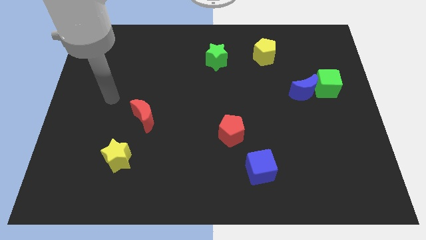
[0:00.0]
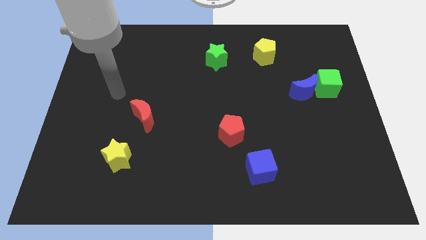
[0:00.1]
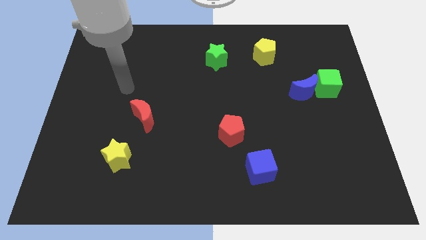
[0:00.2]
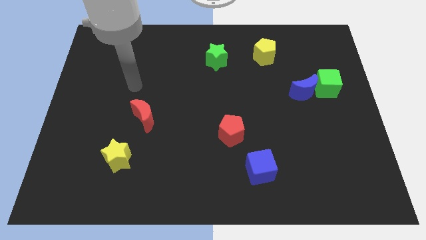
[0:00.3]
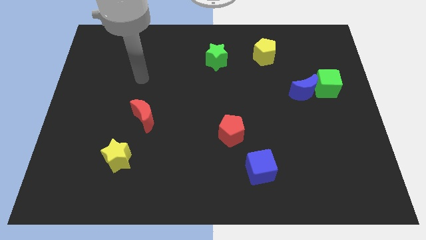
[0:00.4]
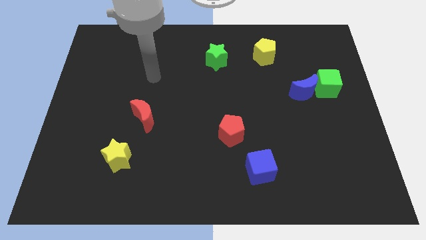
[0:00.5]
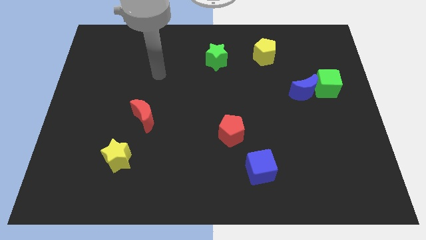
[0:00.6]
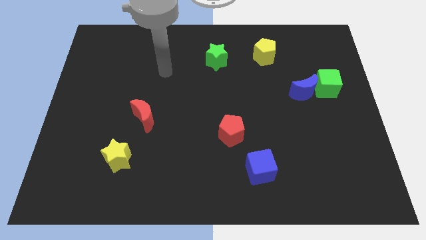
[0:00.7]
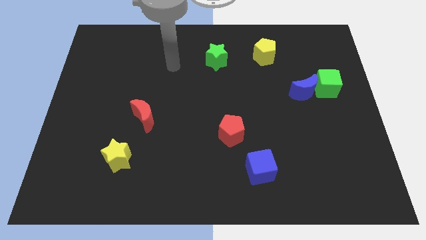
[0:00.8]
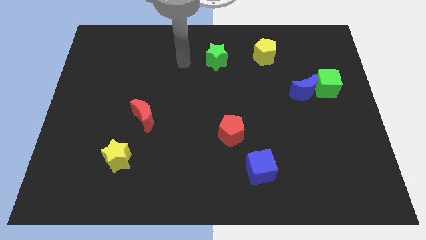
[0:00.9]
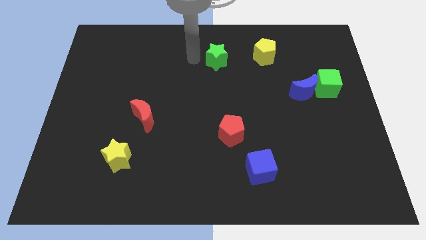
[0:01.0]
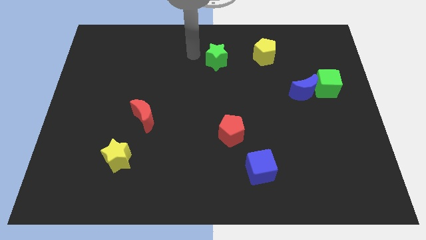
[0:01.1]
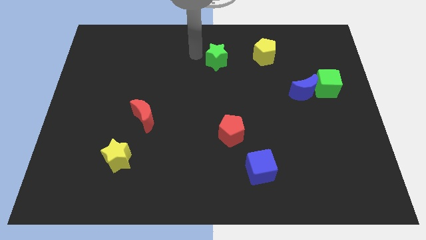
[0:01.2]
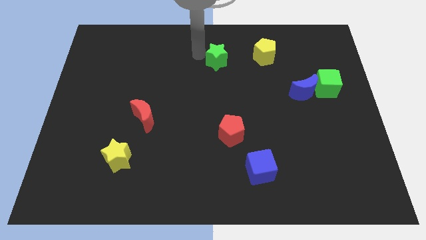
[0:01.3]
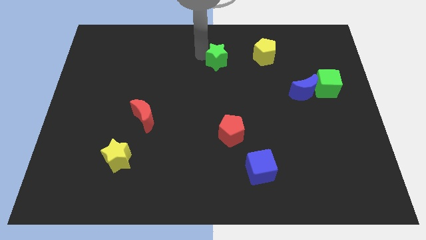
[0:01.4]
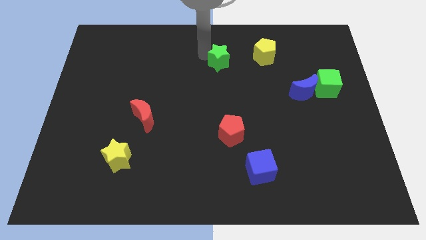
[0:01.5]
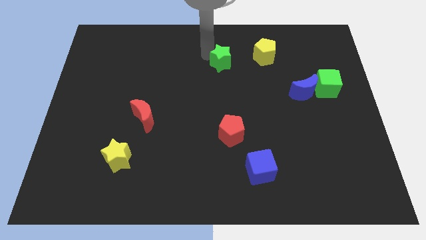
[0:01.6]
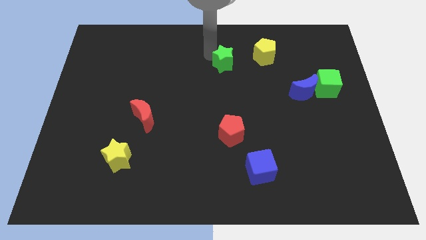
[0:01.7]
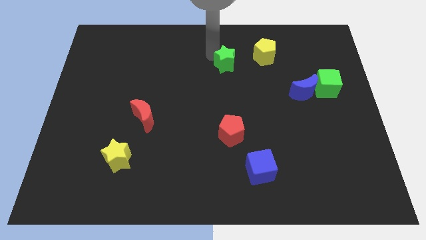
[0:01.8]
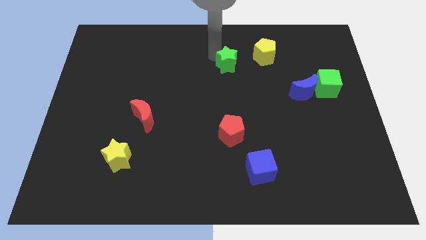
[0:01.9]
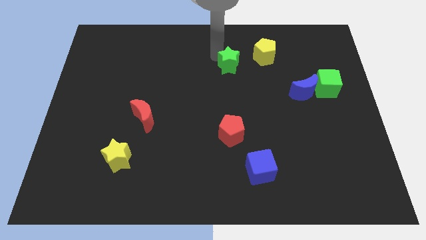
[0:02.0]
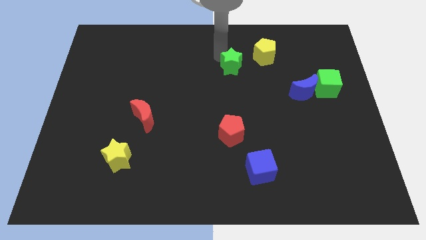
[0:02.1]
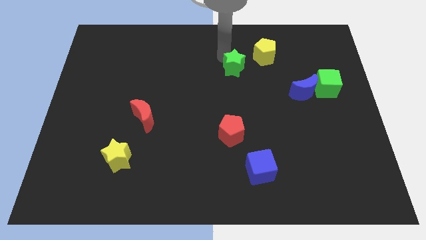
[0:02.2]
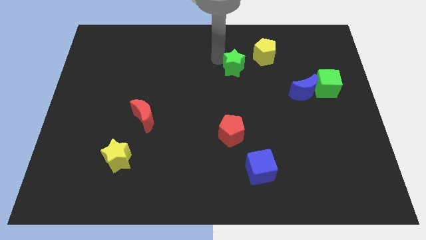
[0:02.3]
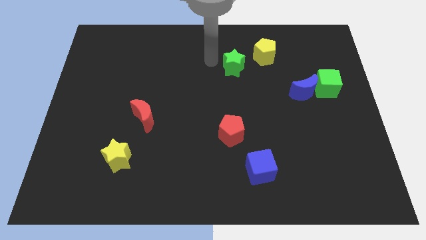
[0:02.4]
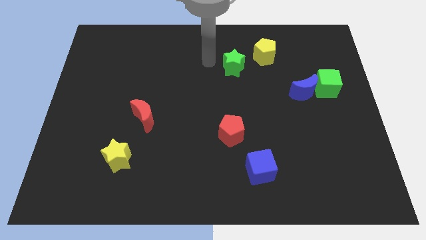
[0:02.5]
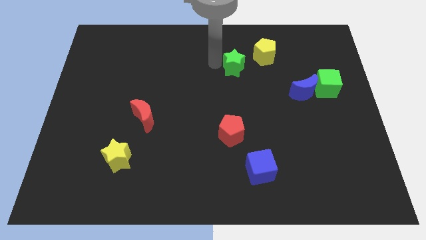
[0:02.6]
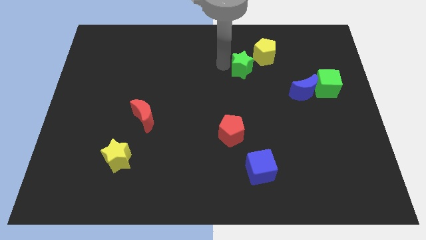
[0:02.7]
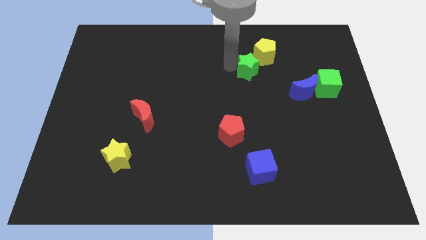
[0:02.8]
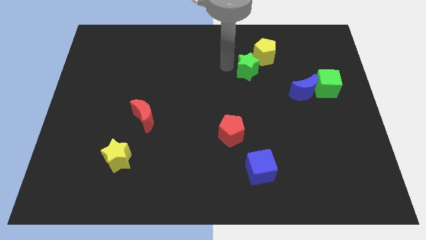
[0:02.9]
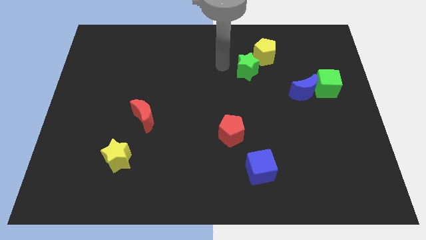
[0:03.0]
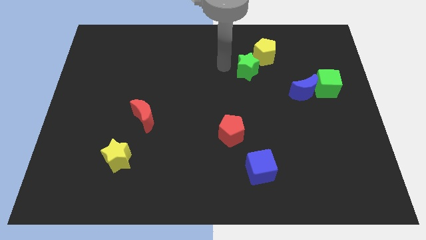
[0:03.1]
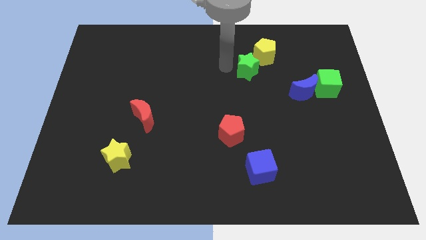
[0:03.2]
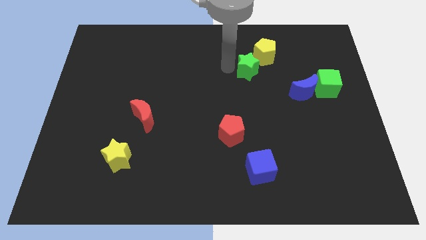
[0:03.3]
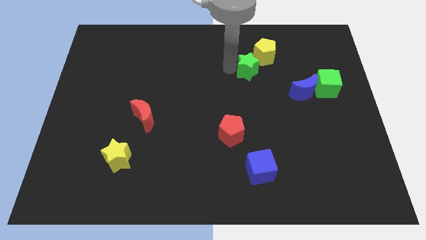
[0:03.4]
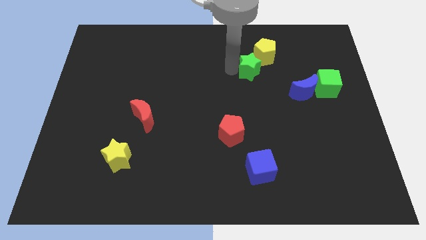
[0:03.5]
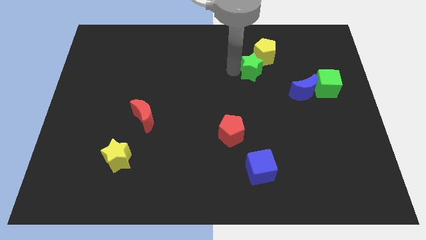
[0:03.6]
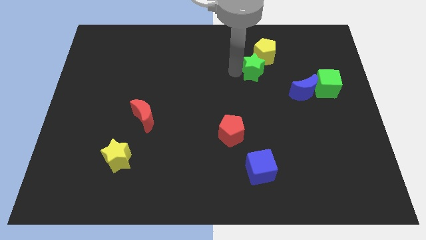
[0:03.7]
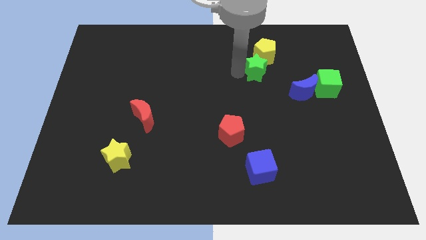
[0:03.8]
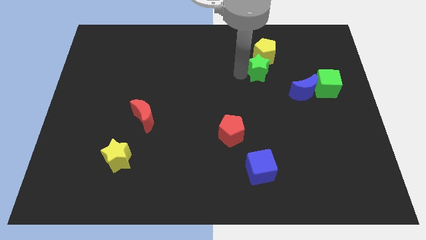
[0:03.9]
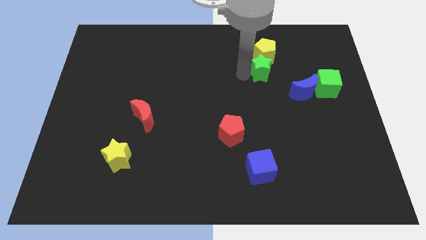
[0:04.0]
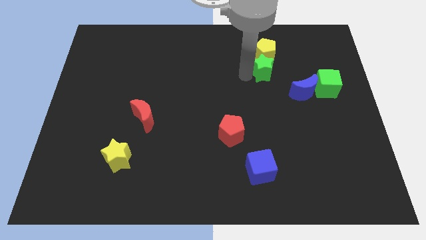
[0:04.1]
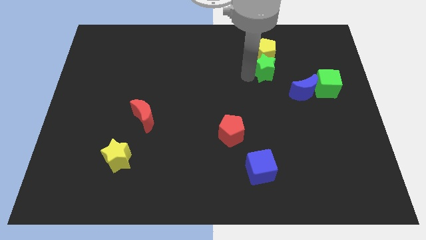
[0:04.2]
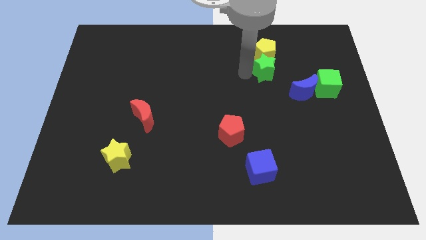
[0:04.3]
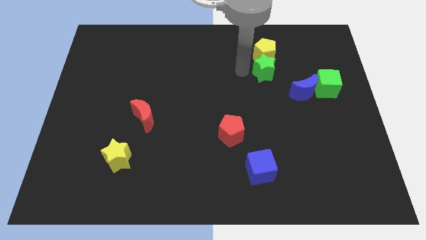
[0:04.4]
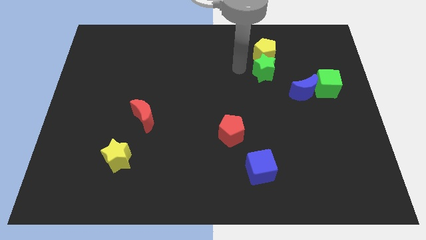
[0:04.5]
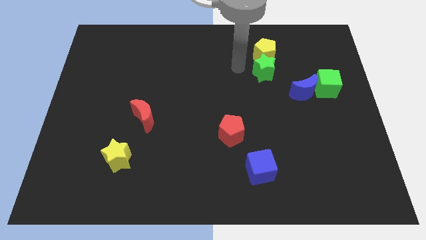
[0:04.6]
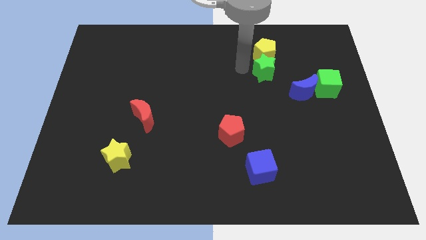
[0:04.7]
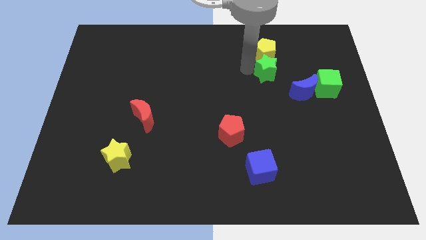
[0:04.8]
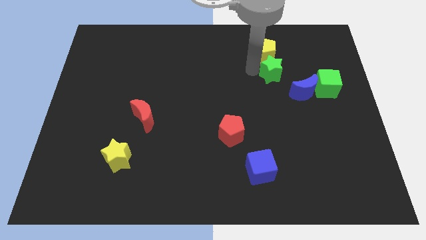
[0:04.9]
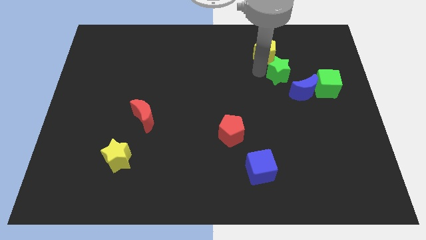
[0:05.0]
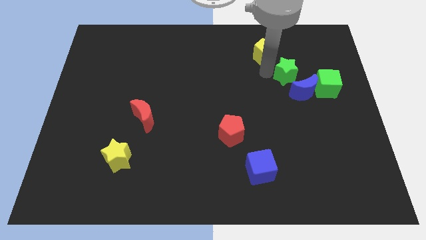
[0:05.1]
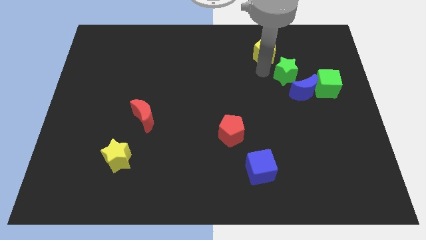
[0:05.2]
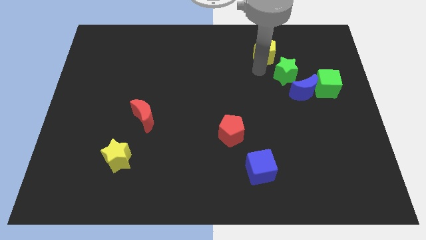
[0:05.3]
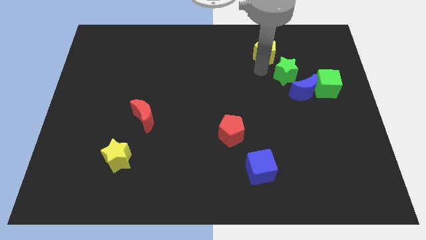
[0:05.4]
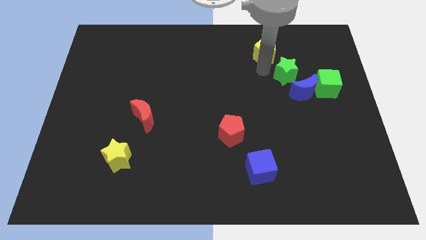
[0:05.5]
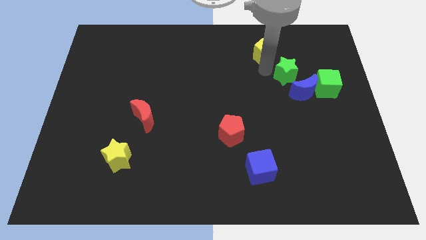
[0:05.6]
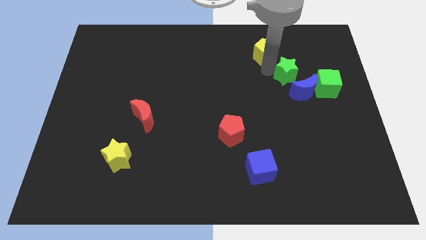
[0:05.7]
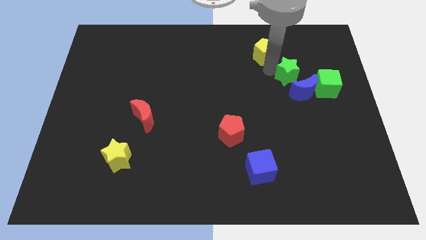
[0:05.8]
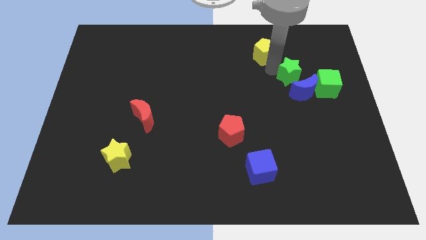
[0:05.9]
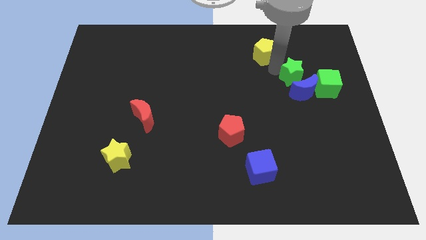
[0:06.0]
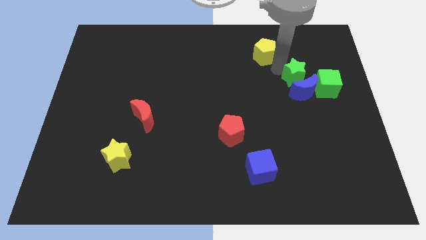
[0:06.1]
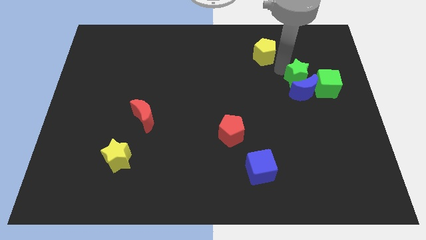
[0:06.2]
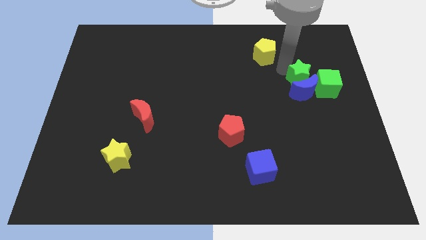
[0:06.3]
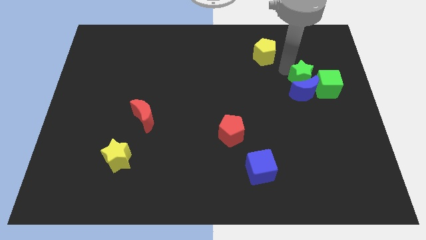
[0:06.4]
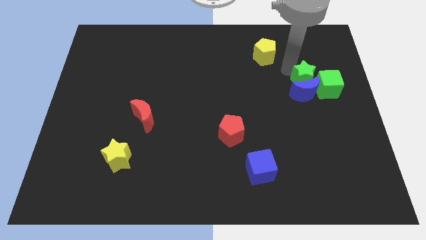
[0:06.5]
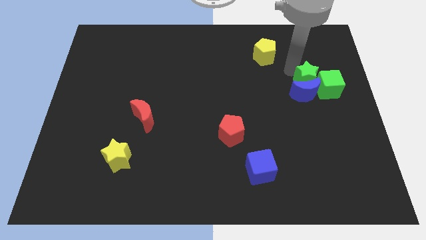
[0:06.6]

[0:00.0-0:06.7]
slide the green star towards the green cube

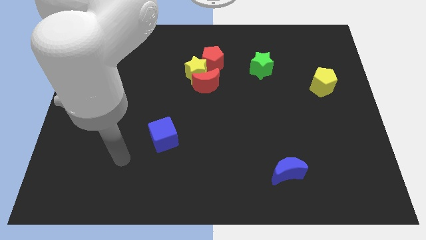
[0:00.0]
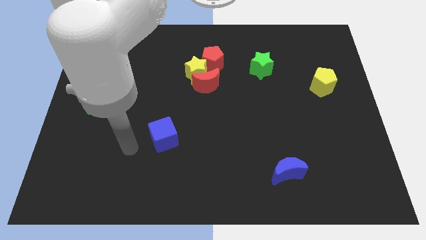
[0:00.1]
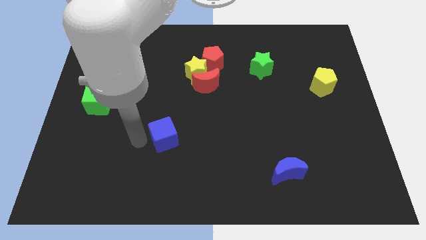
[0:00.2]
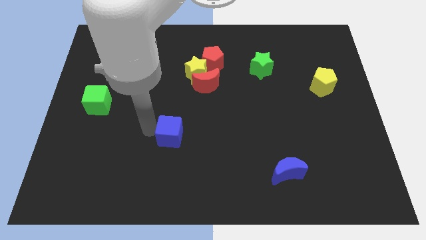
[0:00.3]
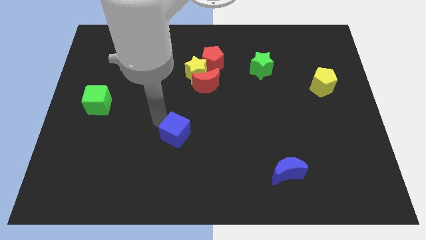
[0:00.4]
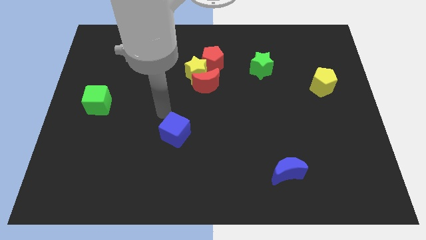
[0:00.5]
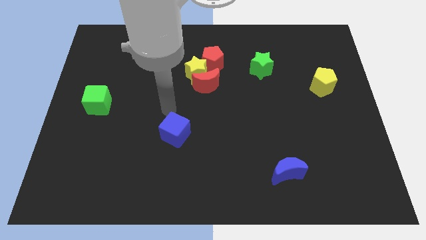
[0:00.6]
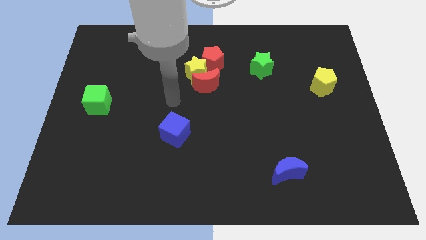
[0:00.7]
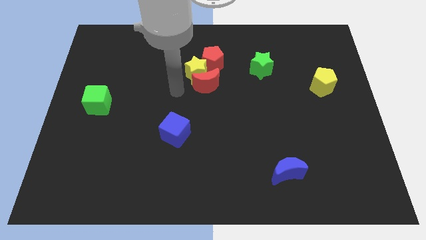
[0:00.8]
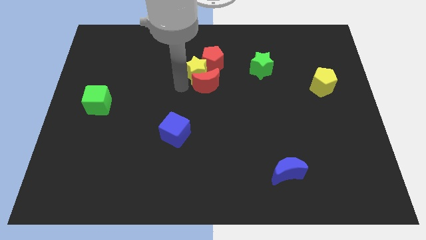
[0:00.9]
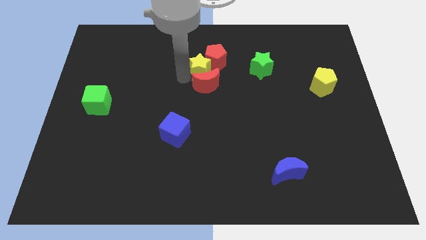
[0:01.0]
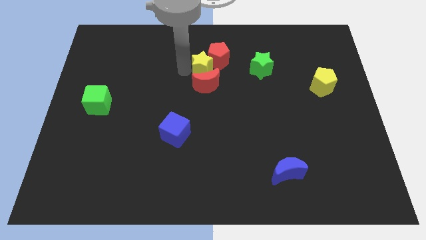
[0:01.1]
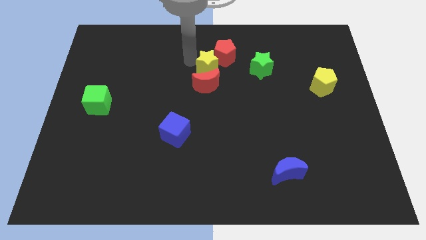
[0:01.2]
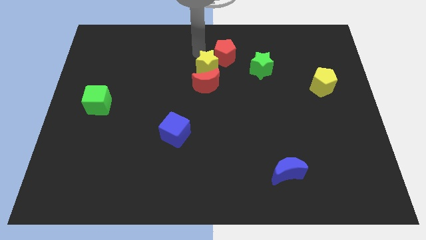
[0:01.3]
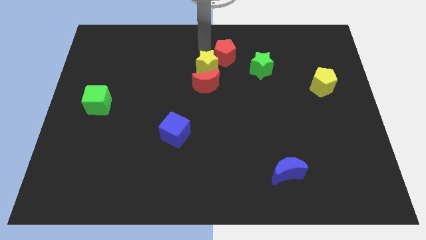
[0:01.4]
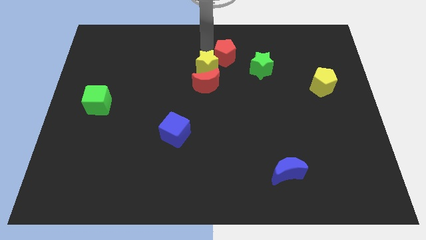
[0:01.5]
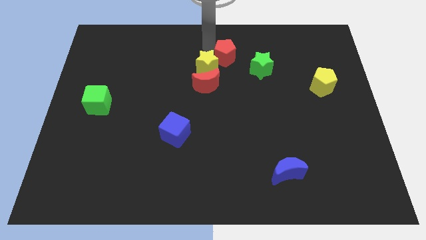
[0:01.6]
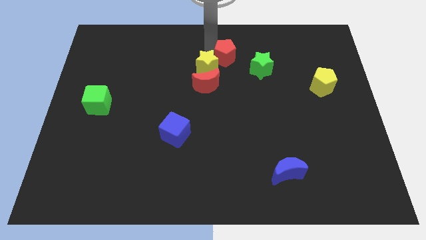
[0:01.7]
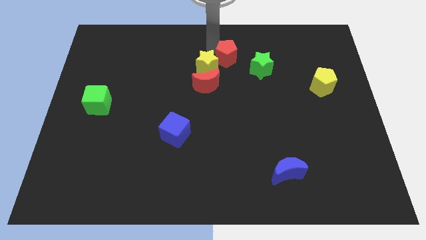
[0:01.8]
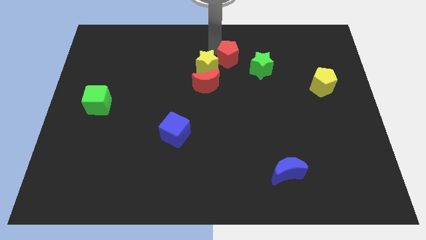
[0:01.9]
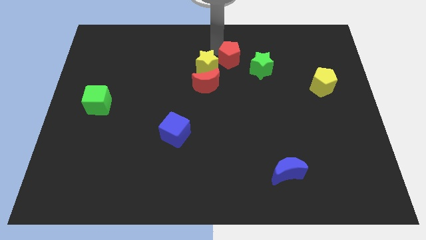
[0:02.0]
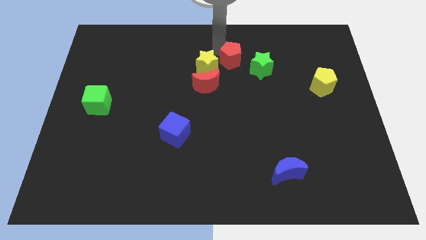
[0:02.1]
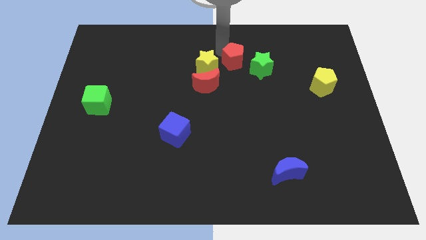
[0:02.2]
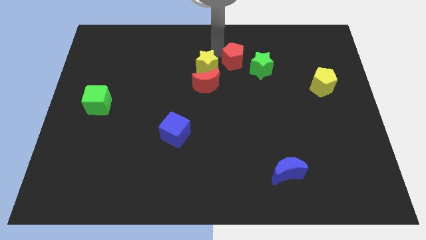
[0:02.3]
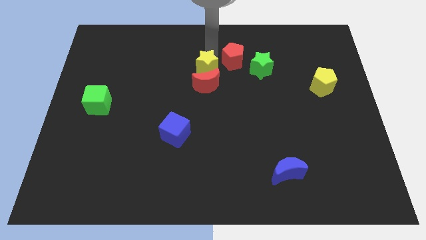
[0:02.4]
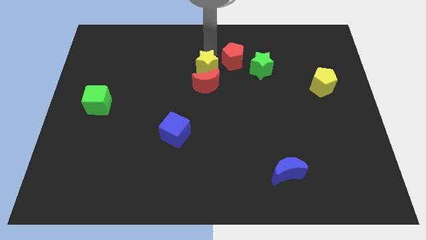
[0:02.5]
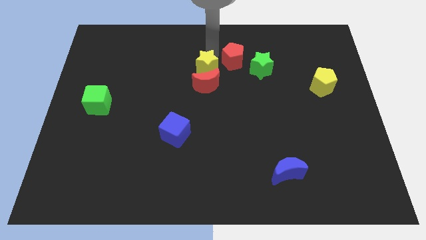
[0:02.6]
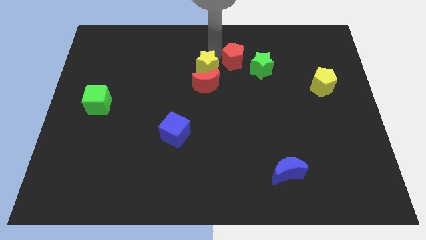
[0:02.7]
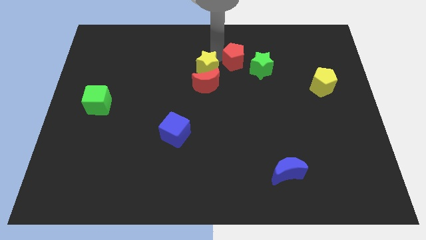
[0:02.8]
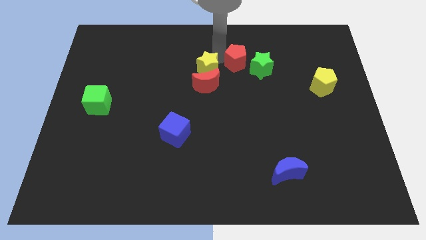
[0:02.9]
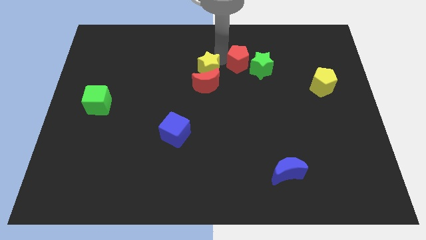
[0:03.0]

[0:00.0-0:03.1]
put the red pentagon towards the green star
